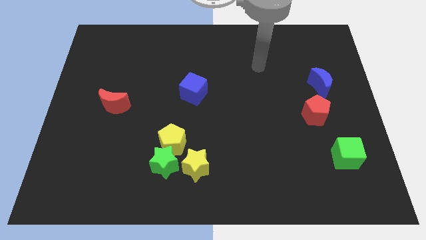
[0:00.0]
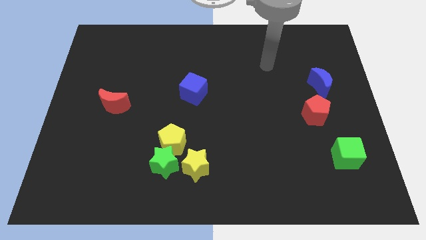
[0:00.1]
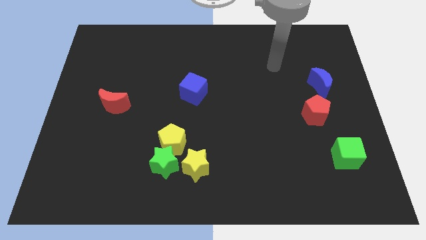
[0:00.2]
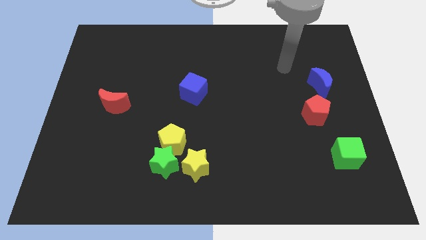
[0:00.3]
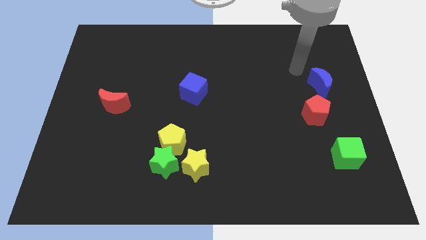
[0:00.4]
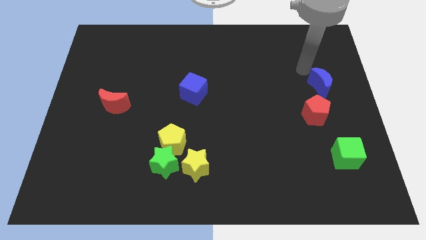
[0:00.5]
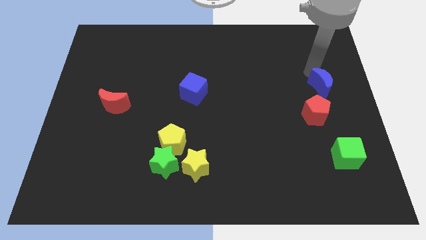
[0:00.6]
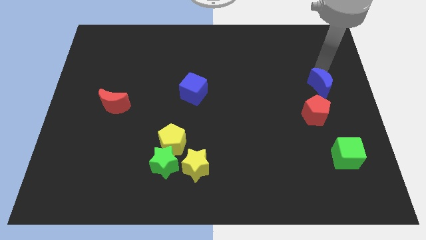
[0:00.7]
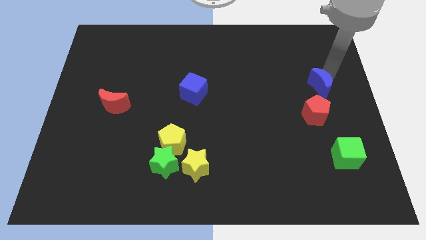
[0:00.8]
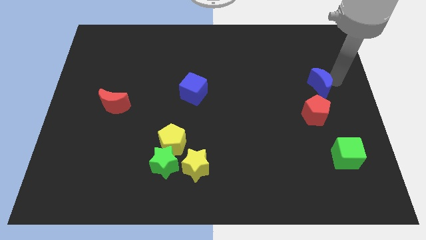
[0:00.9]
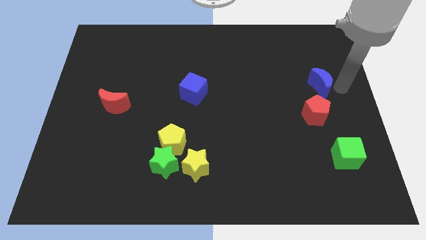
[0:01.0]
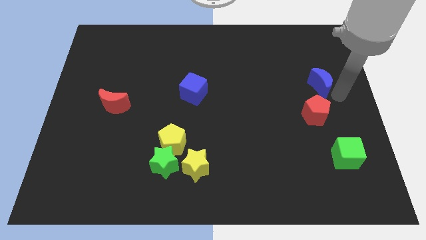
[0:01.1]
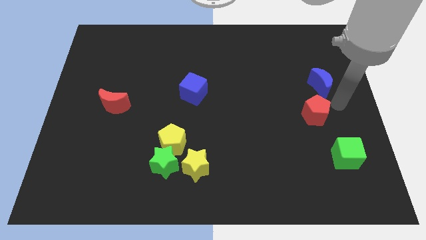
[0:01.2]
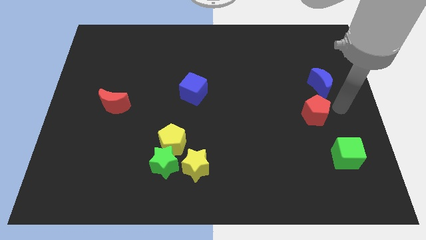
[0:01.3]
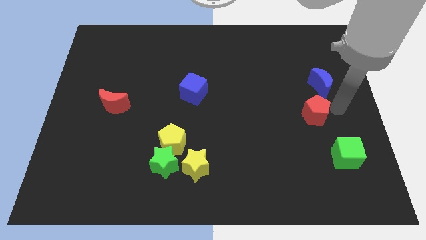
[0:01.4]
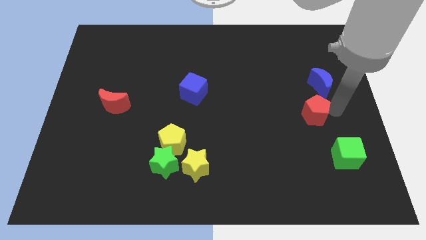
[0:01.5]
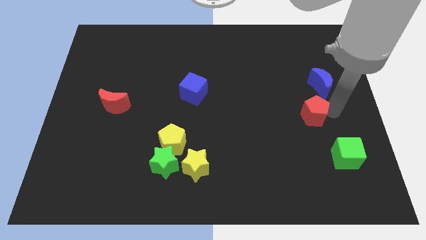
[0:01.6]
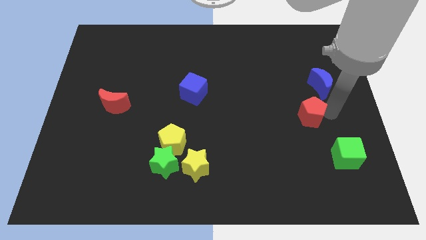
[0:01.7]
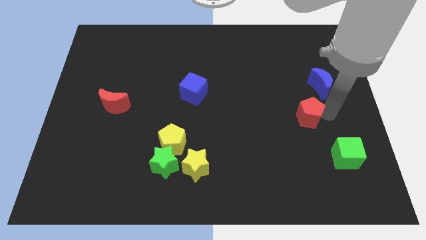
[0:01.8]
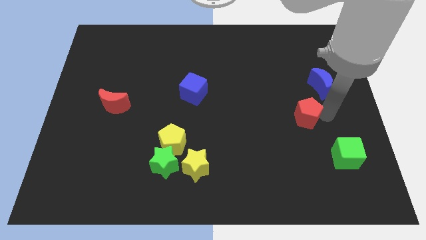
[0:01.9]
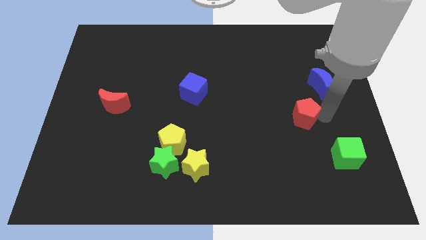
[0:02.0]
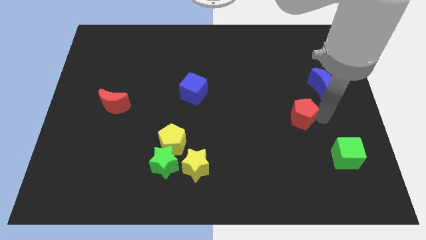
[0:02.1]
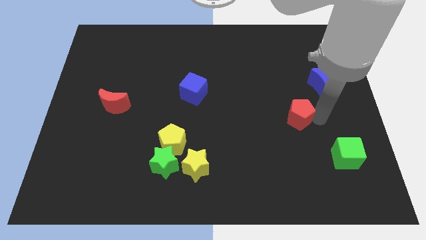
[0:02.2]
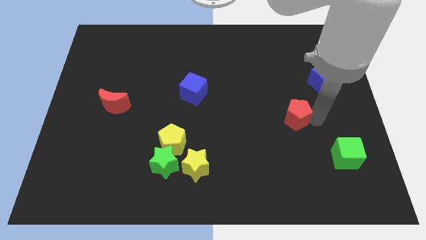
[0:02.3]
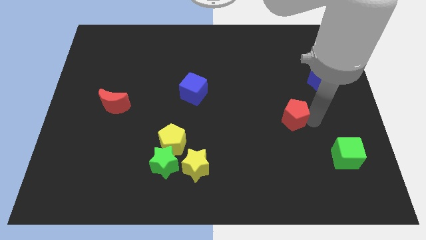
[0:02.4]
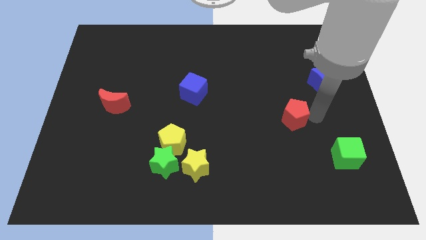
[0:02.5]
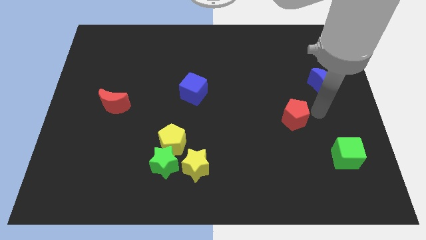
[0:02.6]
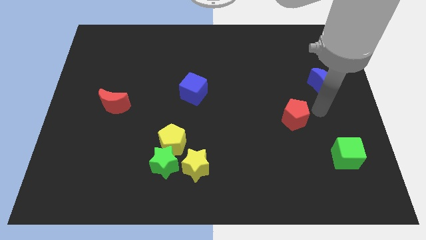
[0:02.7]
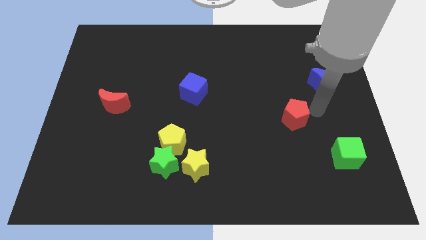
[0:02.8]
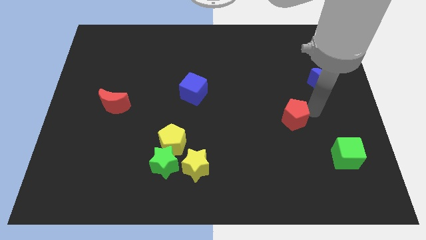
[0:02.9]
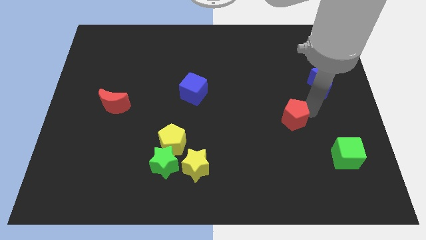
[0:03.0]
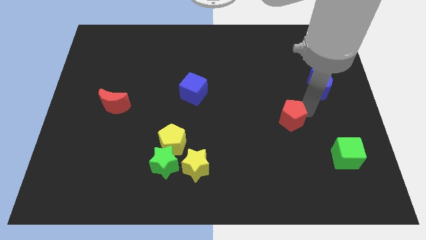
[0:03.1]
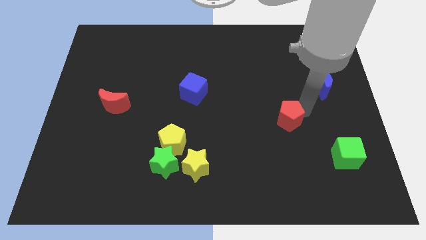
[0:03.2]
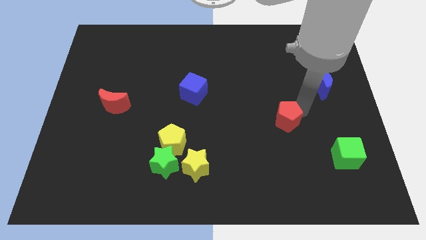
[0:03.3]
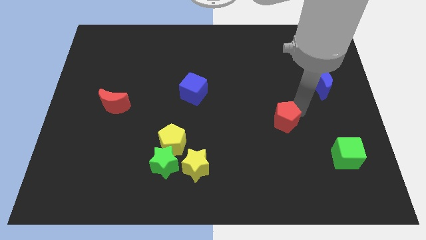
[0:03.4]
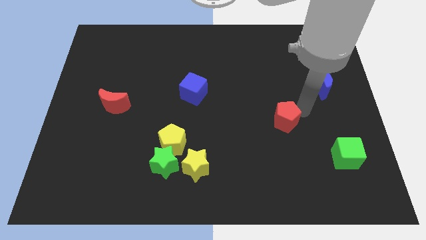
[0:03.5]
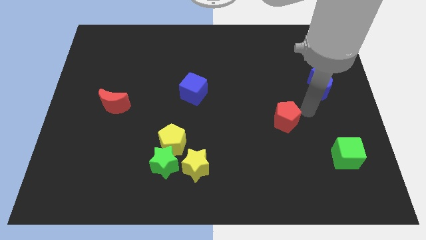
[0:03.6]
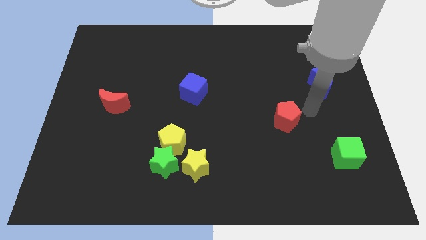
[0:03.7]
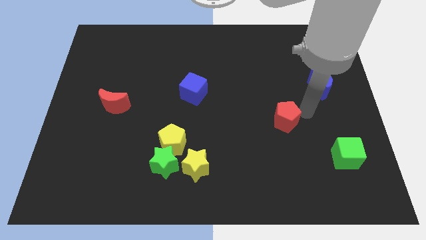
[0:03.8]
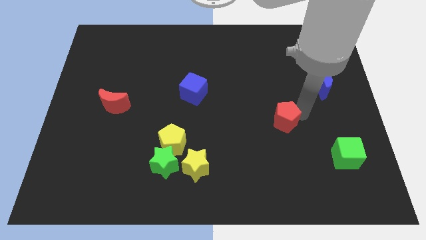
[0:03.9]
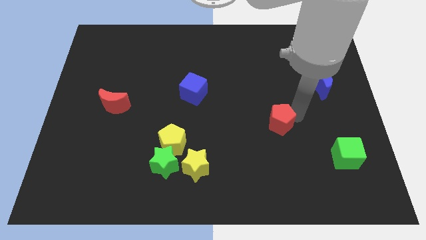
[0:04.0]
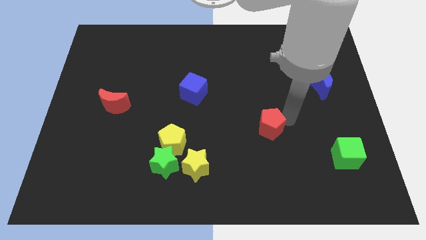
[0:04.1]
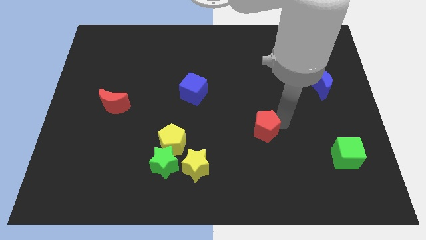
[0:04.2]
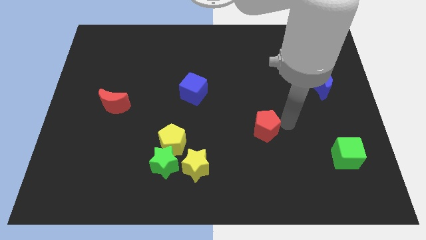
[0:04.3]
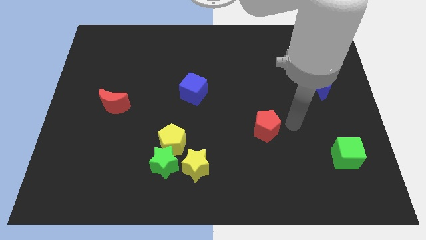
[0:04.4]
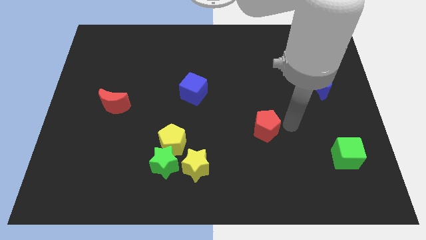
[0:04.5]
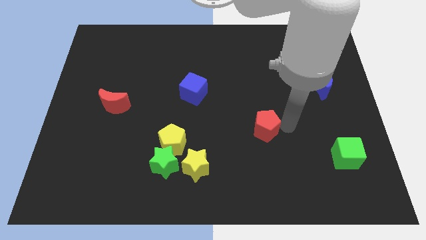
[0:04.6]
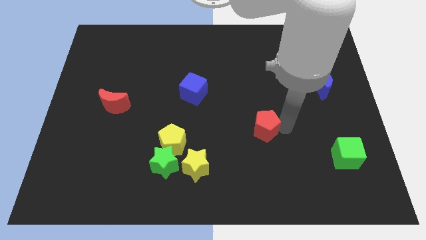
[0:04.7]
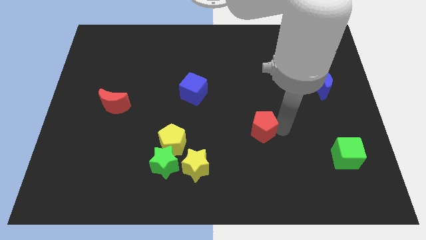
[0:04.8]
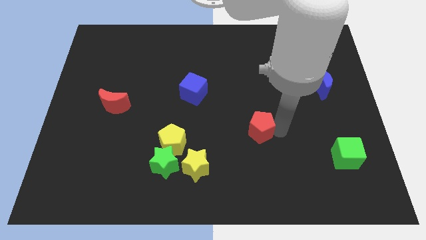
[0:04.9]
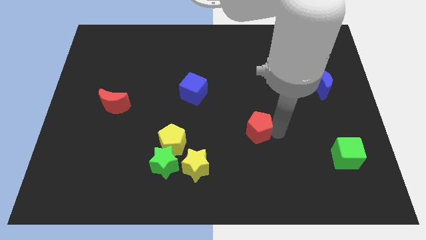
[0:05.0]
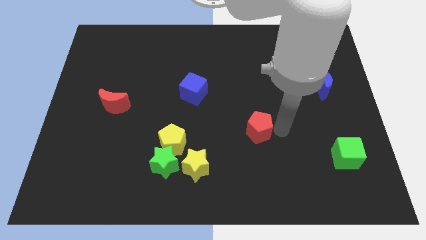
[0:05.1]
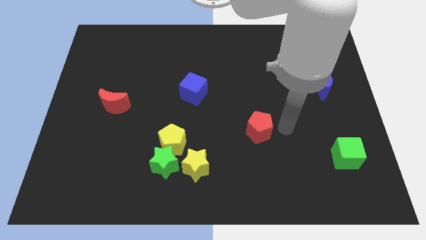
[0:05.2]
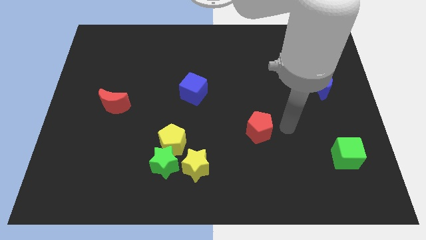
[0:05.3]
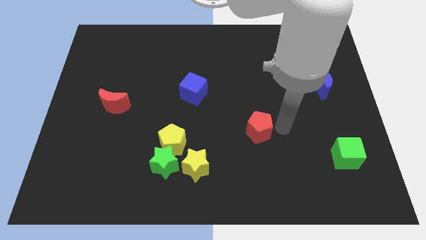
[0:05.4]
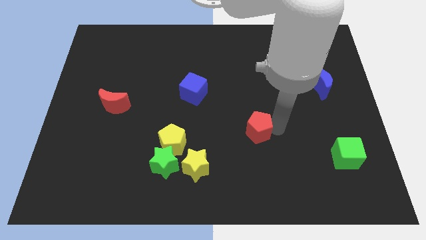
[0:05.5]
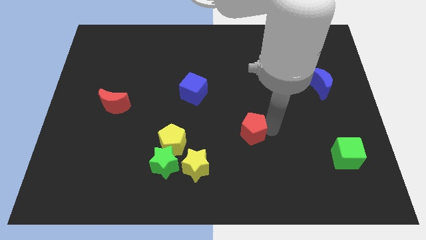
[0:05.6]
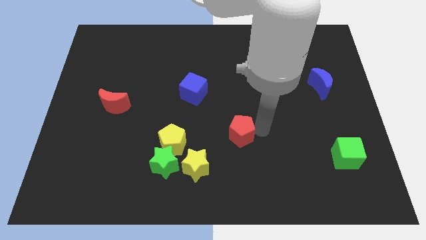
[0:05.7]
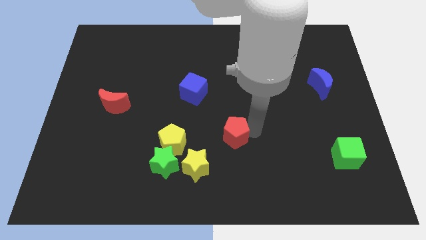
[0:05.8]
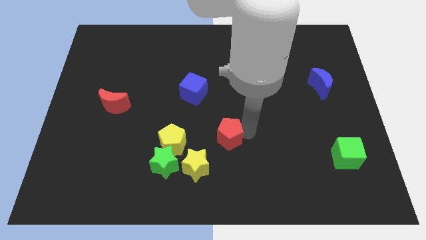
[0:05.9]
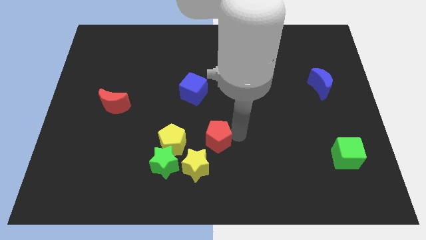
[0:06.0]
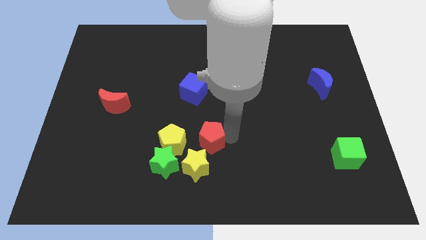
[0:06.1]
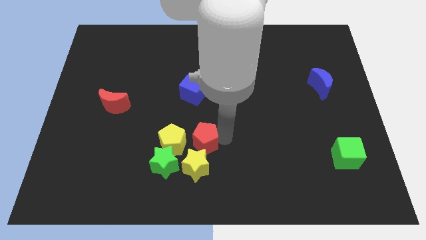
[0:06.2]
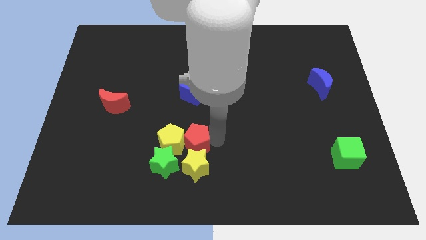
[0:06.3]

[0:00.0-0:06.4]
push the red pentagon towards the yellow pentagon

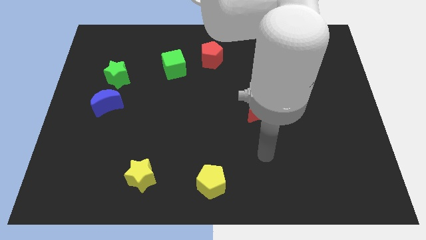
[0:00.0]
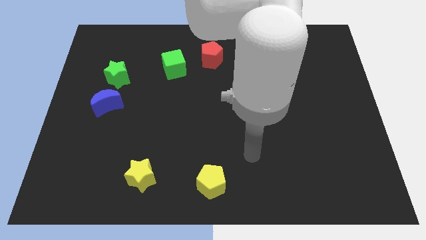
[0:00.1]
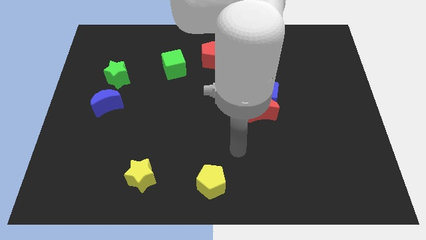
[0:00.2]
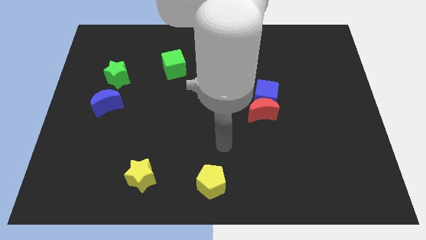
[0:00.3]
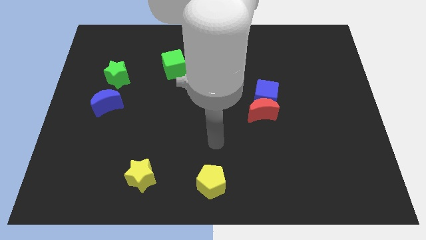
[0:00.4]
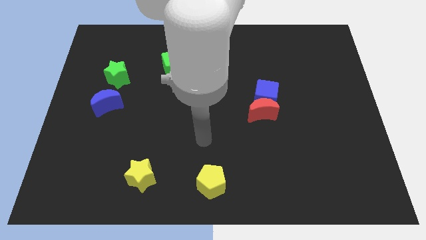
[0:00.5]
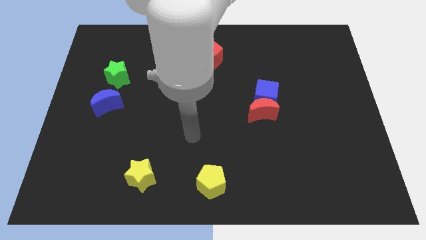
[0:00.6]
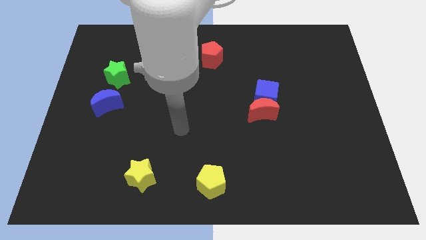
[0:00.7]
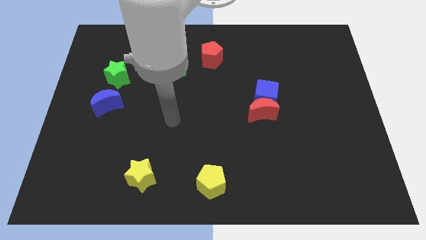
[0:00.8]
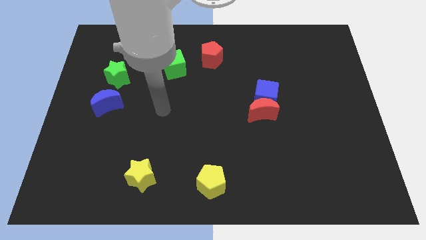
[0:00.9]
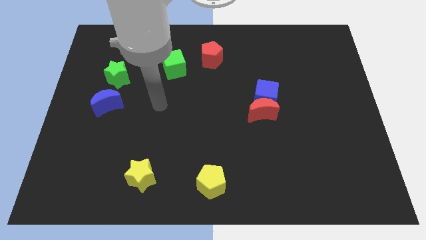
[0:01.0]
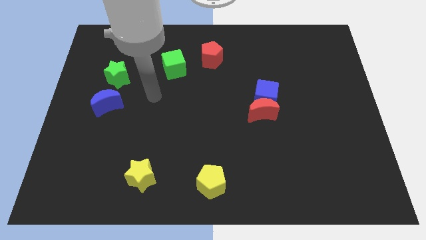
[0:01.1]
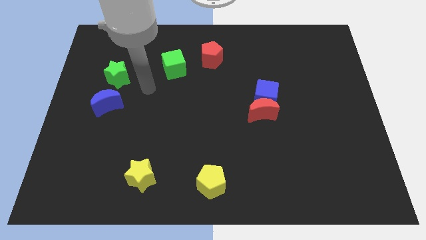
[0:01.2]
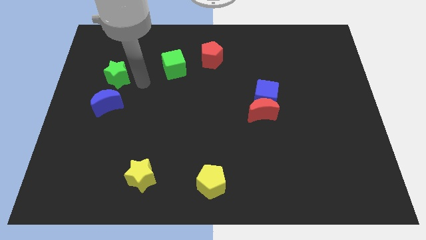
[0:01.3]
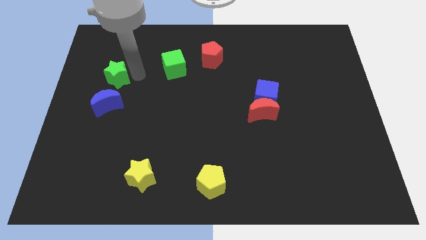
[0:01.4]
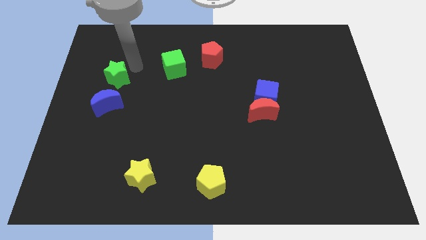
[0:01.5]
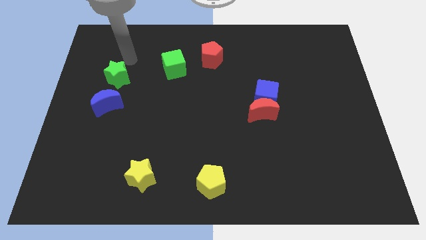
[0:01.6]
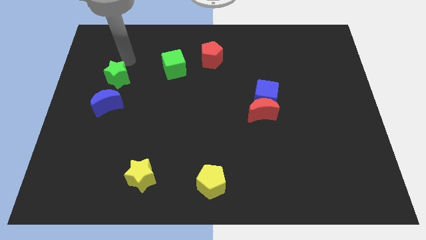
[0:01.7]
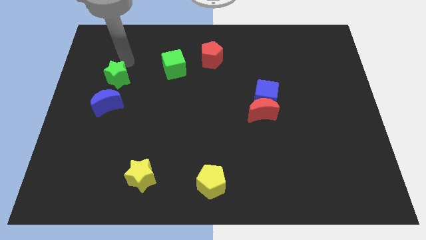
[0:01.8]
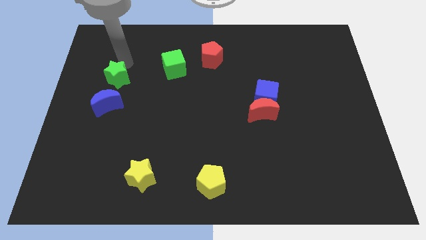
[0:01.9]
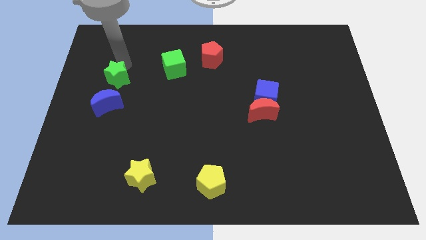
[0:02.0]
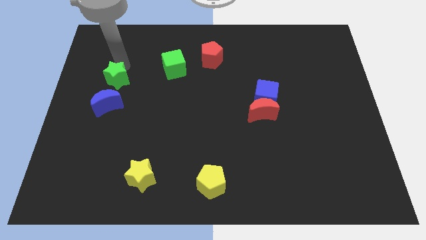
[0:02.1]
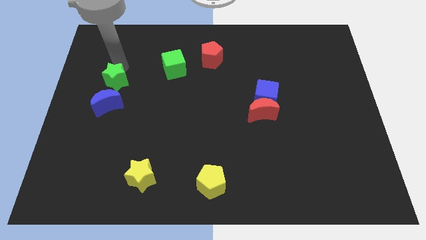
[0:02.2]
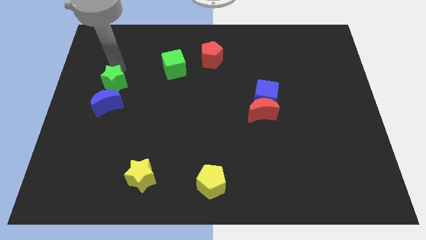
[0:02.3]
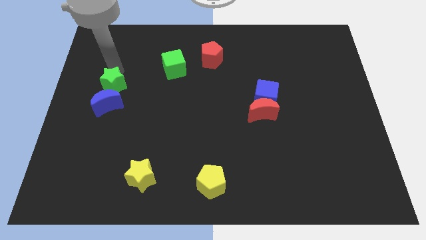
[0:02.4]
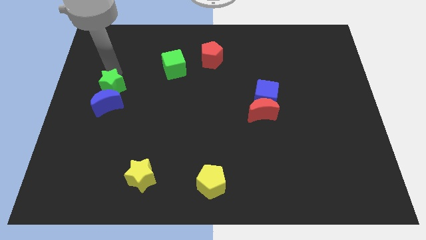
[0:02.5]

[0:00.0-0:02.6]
put the green star close to the blue moon
